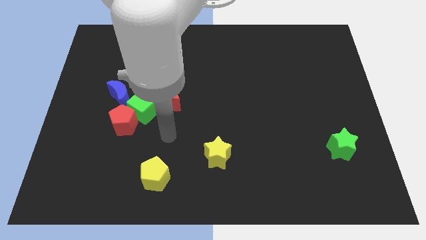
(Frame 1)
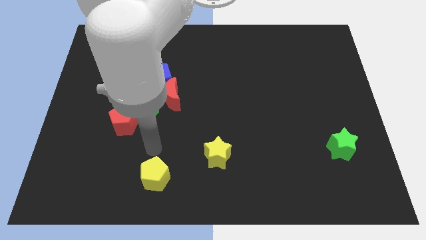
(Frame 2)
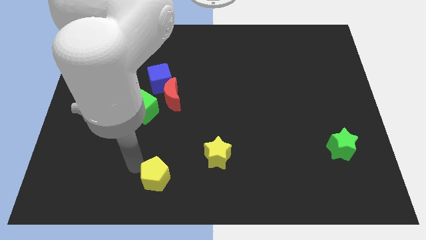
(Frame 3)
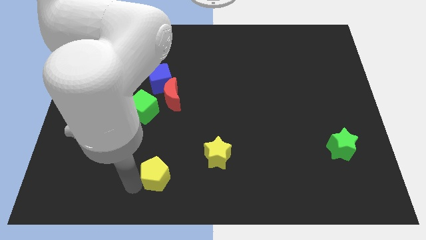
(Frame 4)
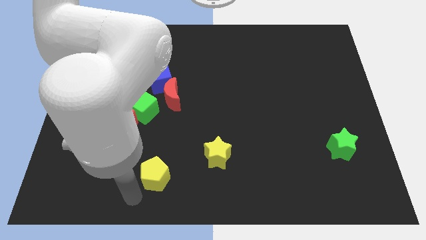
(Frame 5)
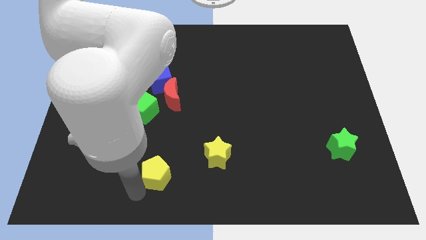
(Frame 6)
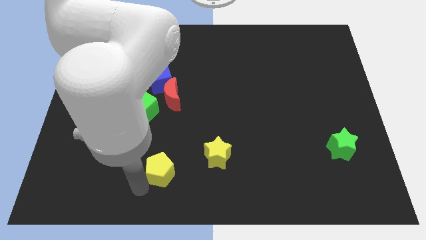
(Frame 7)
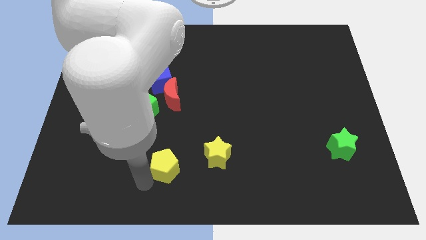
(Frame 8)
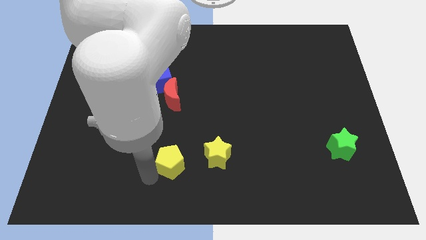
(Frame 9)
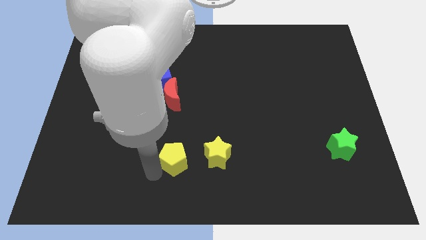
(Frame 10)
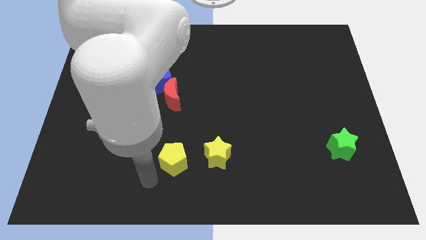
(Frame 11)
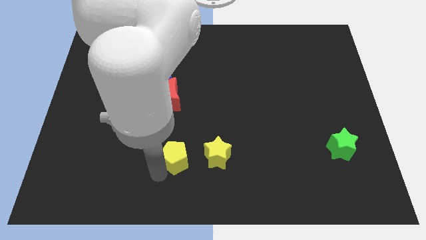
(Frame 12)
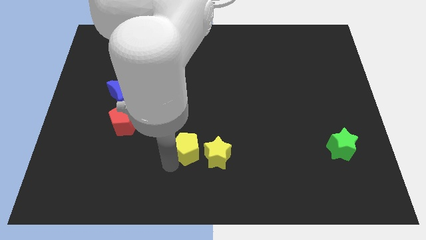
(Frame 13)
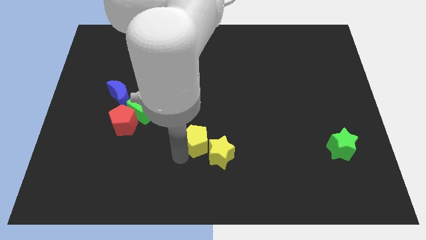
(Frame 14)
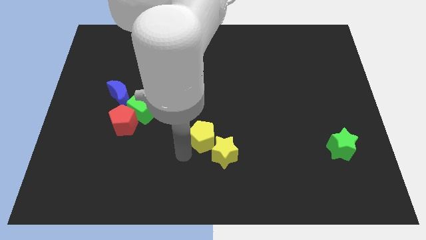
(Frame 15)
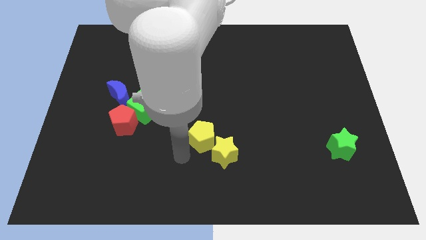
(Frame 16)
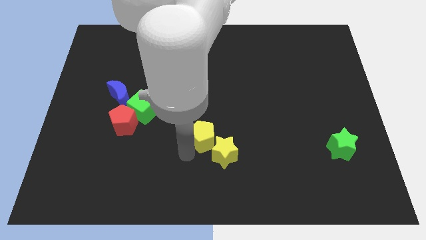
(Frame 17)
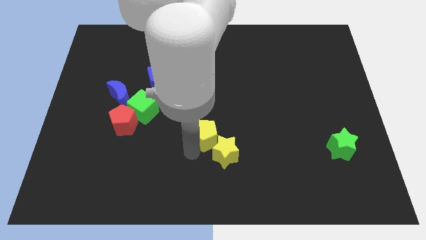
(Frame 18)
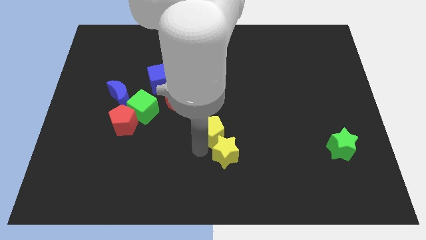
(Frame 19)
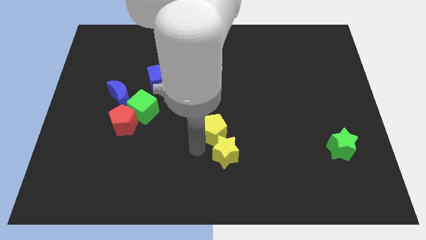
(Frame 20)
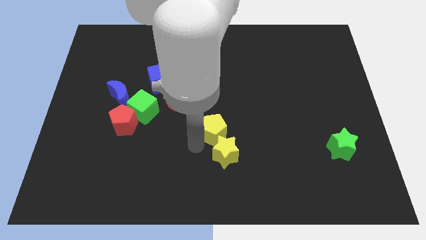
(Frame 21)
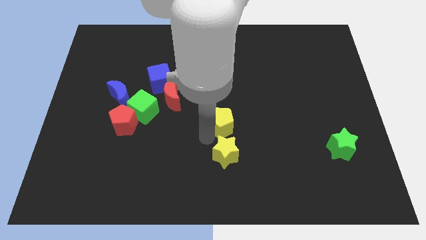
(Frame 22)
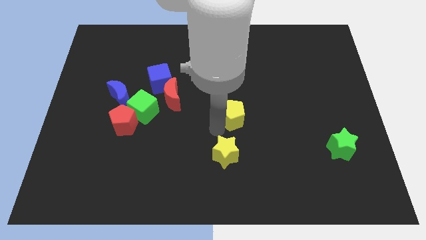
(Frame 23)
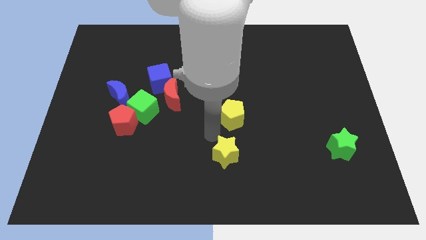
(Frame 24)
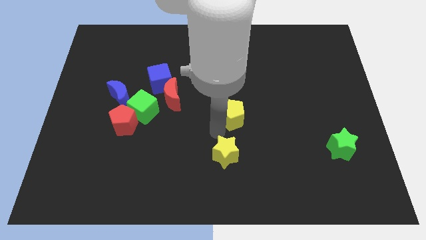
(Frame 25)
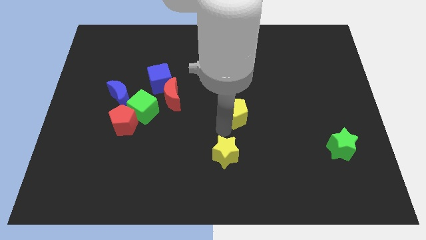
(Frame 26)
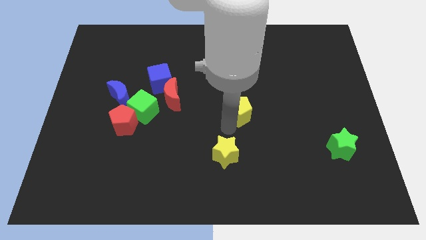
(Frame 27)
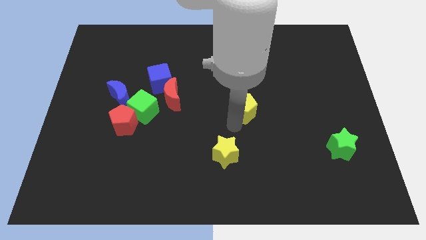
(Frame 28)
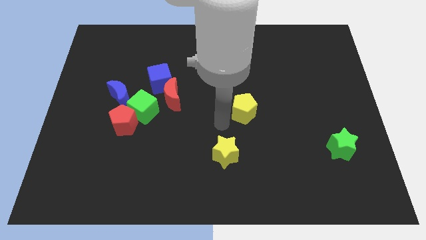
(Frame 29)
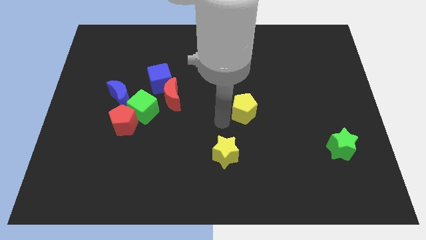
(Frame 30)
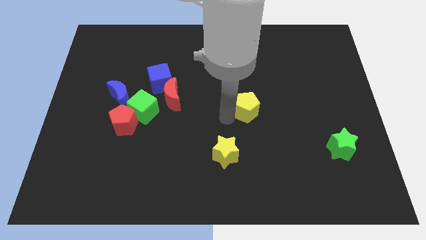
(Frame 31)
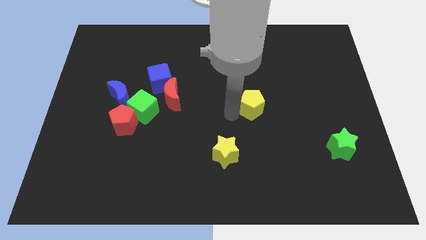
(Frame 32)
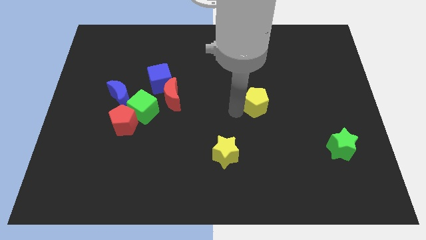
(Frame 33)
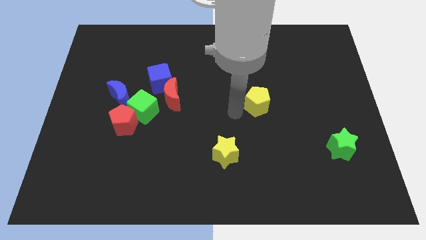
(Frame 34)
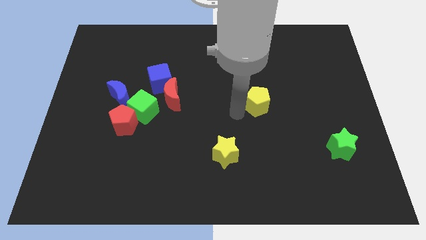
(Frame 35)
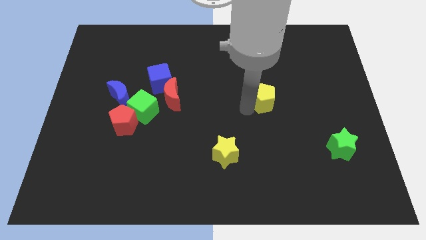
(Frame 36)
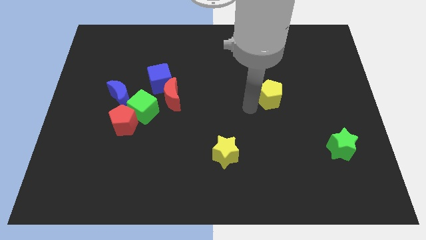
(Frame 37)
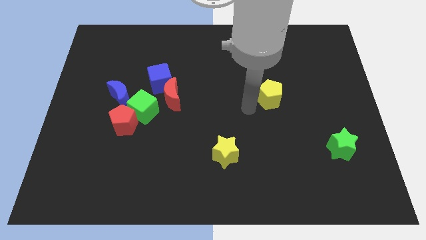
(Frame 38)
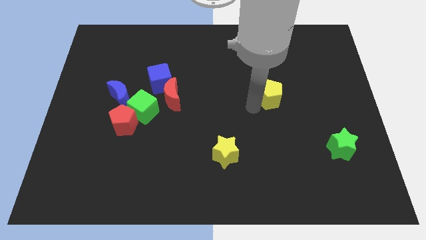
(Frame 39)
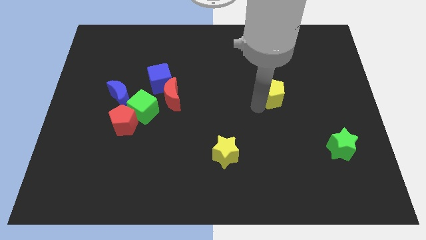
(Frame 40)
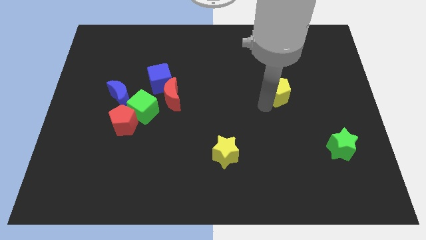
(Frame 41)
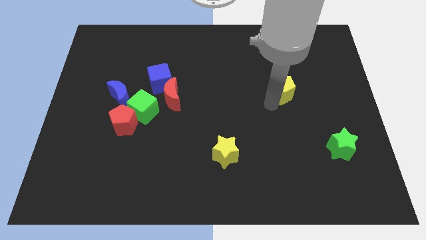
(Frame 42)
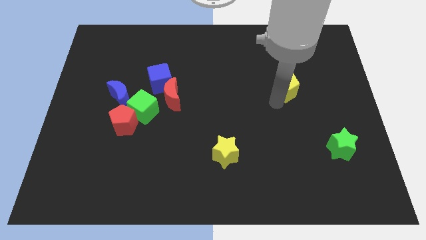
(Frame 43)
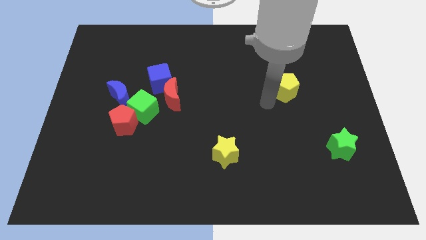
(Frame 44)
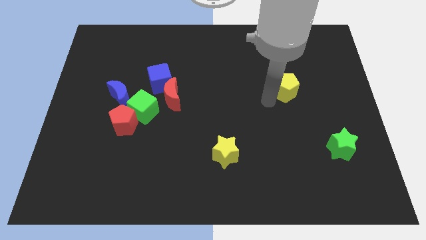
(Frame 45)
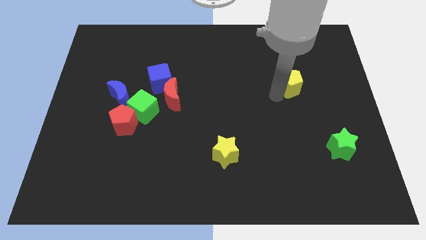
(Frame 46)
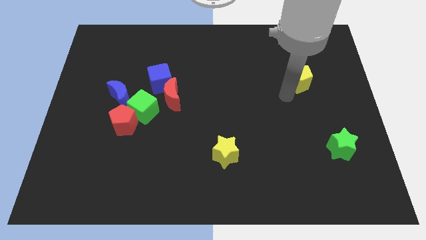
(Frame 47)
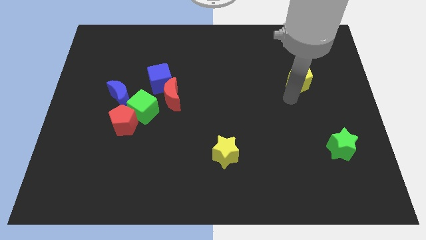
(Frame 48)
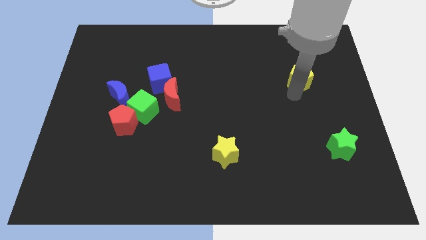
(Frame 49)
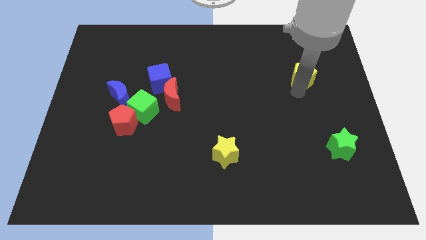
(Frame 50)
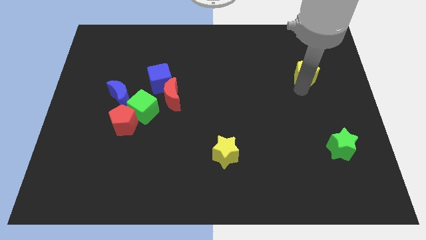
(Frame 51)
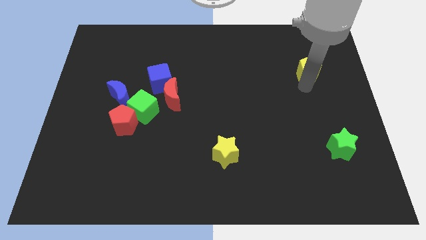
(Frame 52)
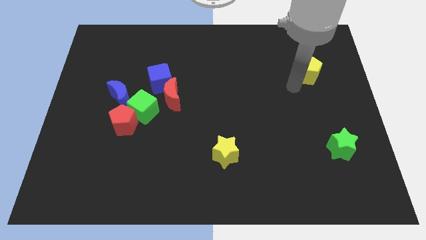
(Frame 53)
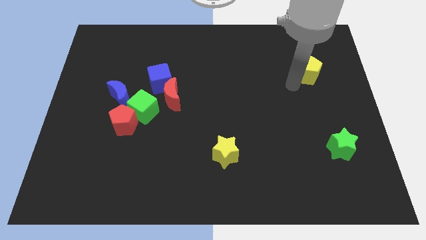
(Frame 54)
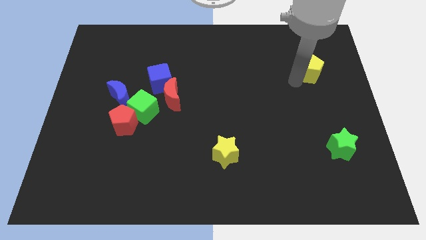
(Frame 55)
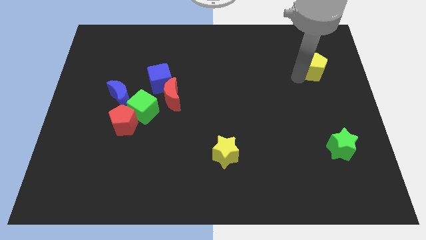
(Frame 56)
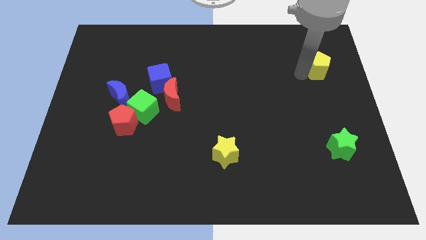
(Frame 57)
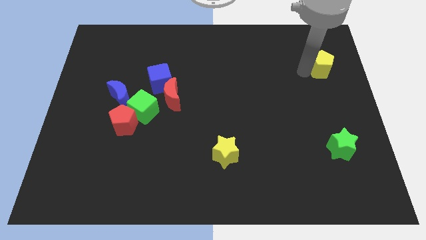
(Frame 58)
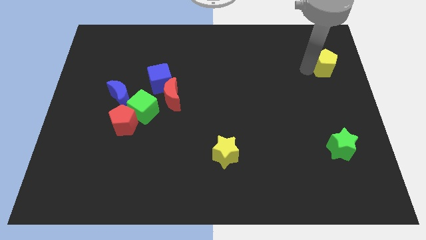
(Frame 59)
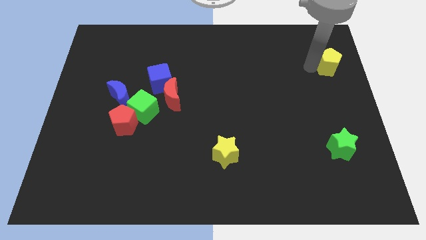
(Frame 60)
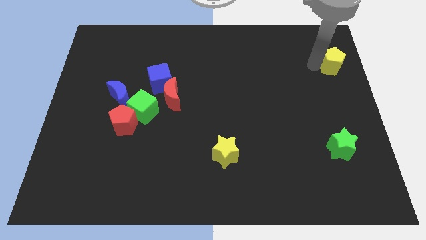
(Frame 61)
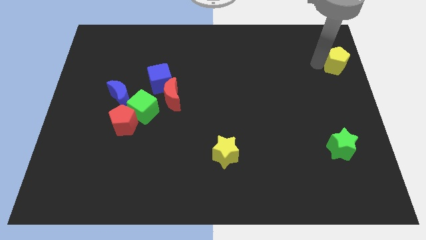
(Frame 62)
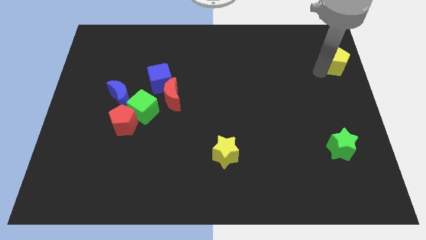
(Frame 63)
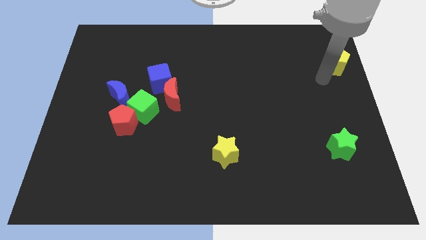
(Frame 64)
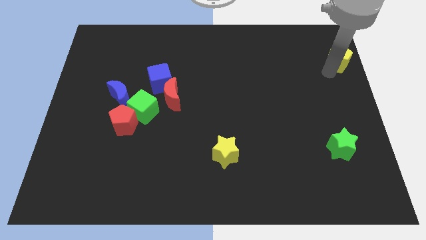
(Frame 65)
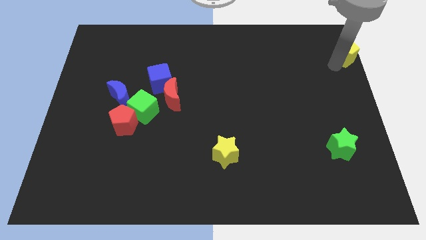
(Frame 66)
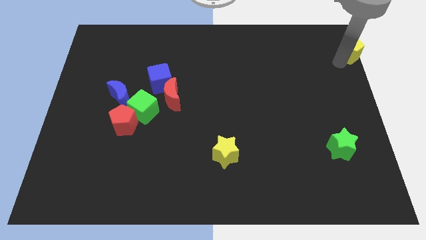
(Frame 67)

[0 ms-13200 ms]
move the yellow pentagon to the top right corner
